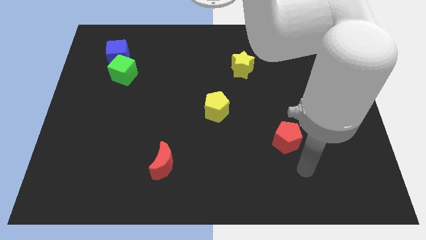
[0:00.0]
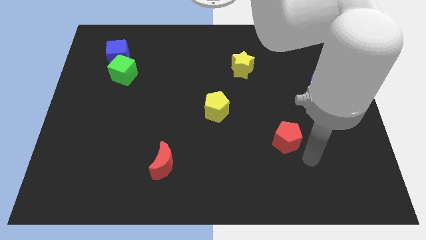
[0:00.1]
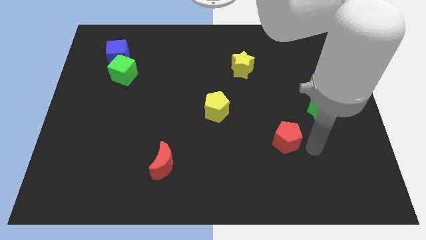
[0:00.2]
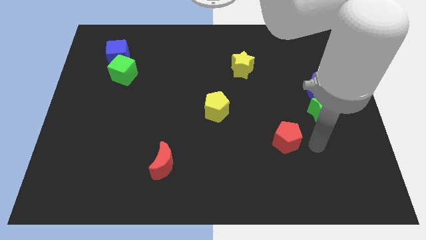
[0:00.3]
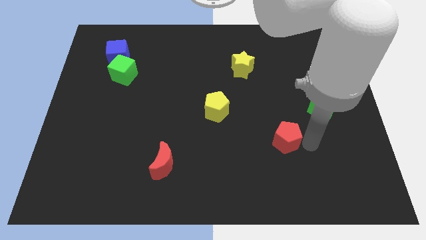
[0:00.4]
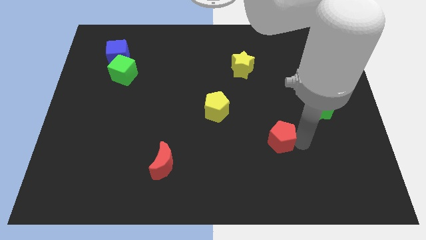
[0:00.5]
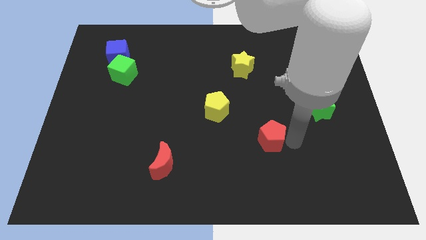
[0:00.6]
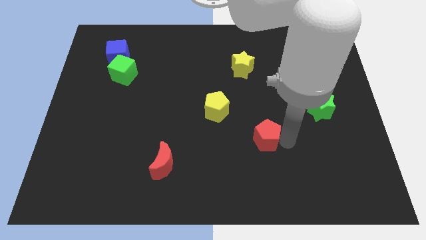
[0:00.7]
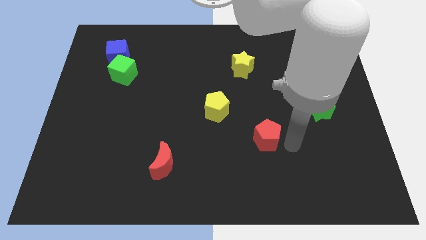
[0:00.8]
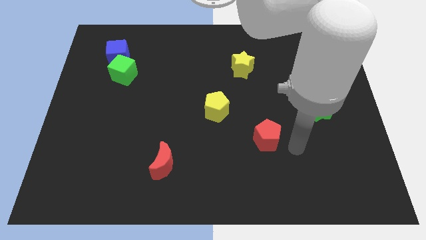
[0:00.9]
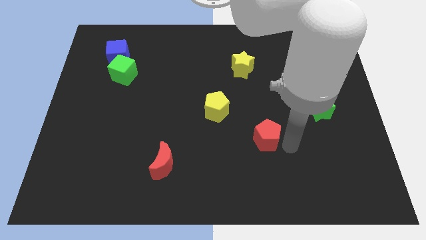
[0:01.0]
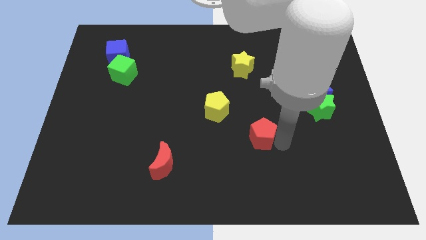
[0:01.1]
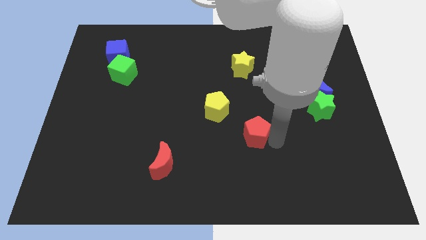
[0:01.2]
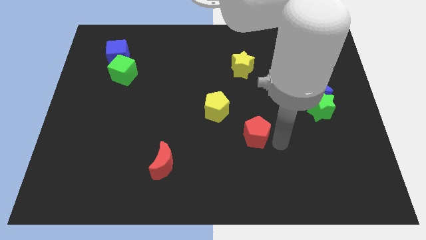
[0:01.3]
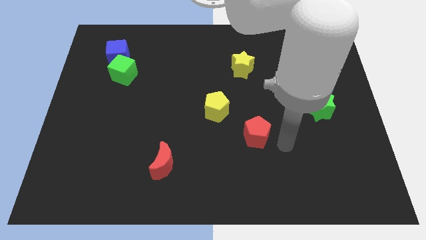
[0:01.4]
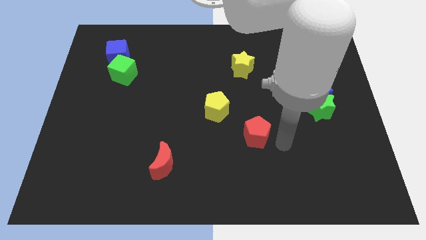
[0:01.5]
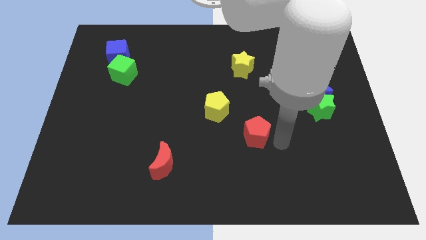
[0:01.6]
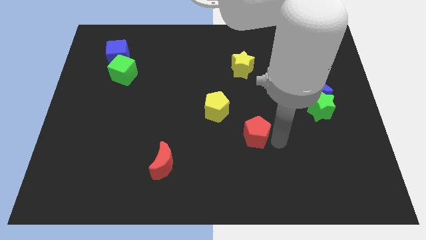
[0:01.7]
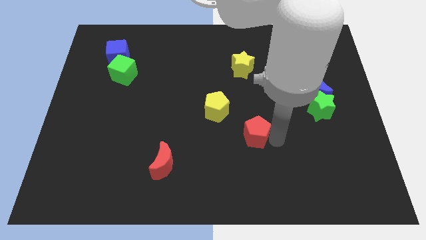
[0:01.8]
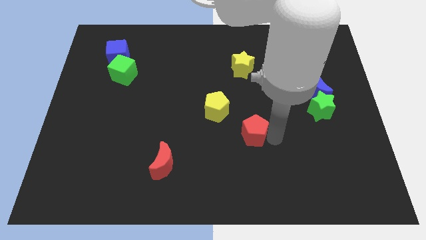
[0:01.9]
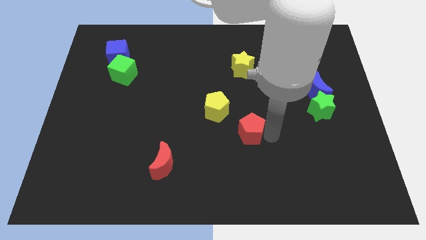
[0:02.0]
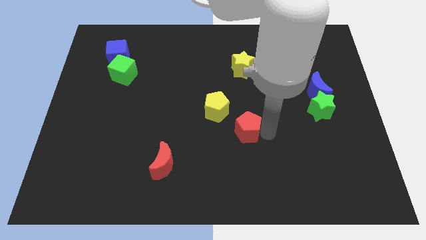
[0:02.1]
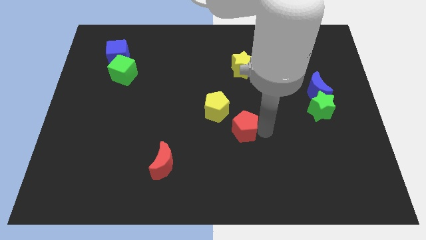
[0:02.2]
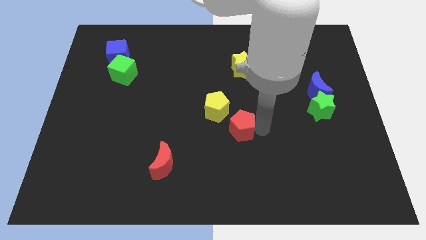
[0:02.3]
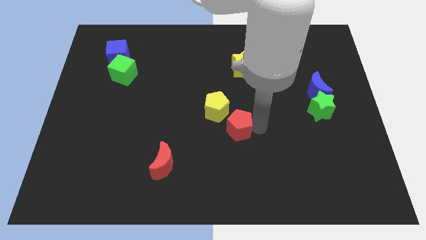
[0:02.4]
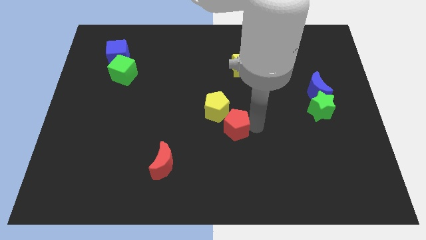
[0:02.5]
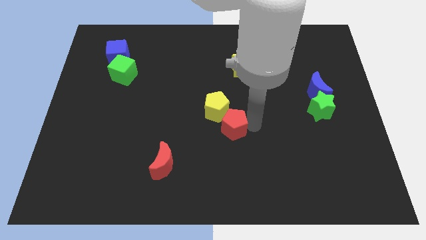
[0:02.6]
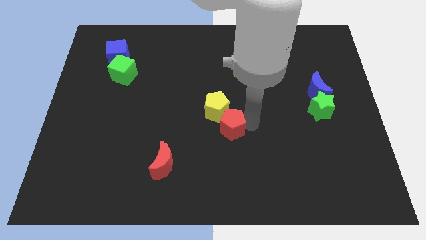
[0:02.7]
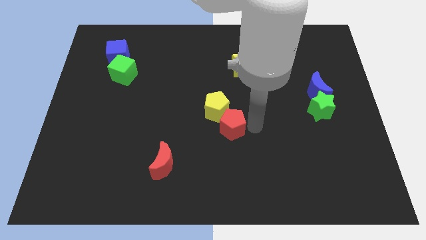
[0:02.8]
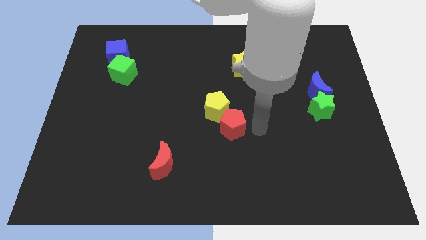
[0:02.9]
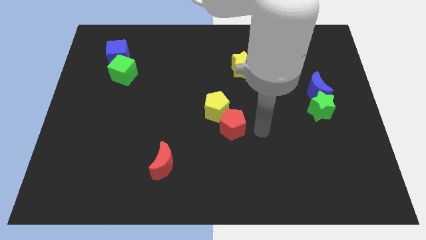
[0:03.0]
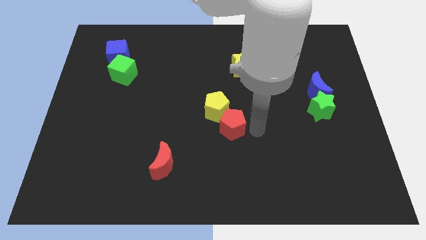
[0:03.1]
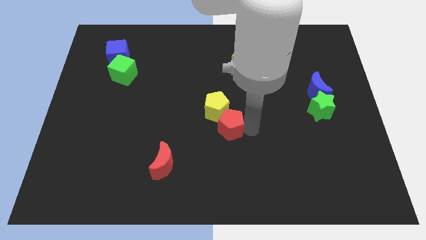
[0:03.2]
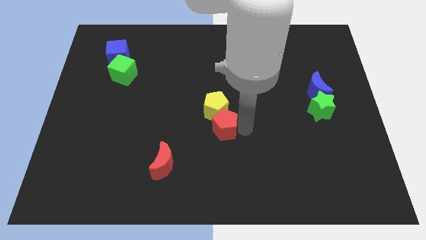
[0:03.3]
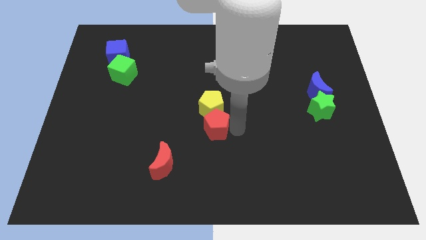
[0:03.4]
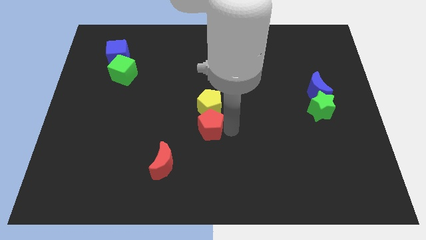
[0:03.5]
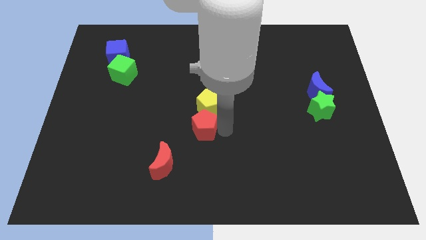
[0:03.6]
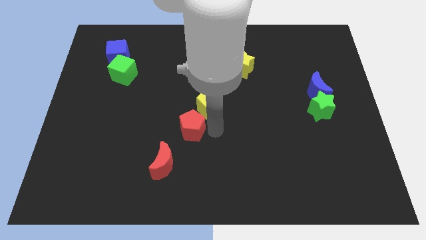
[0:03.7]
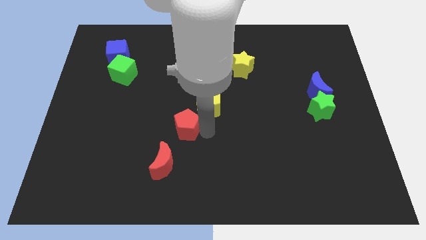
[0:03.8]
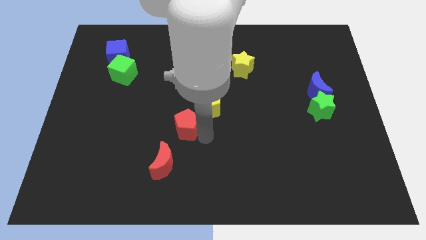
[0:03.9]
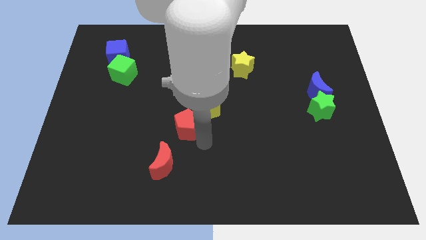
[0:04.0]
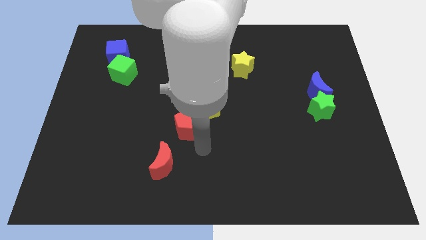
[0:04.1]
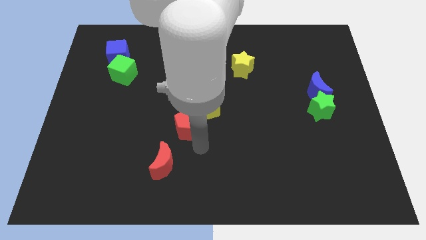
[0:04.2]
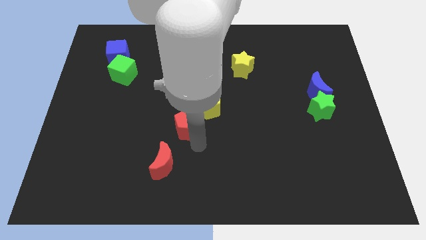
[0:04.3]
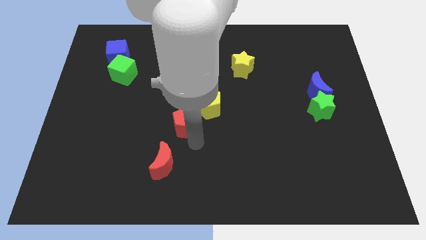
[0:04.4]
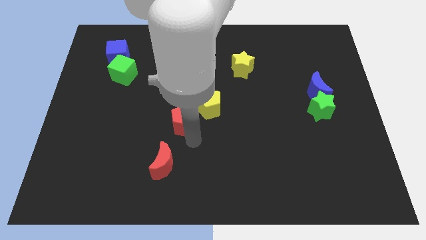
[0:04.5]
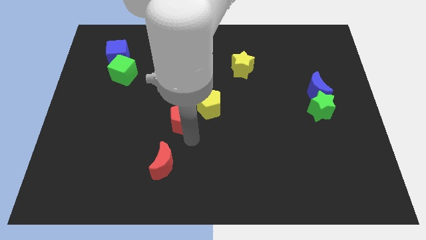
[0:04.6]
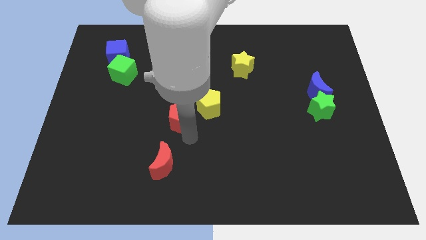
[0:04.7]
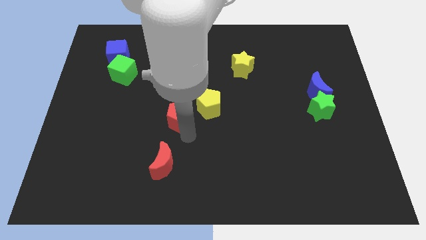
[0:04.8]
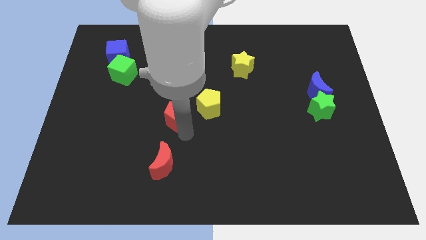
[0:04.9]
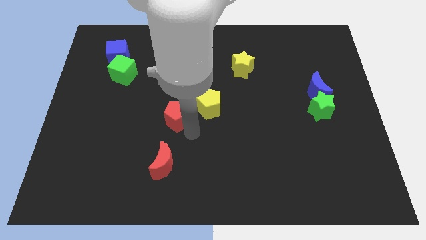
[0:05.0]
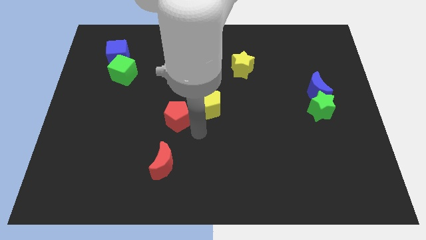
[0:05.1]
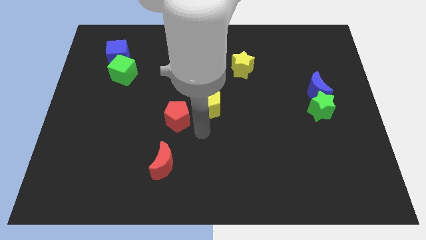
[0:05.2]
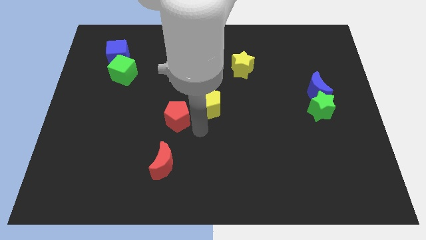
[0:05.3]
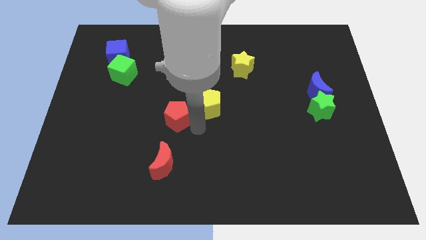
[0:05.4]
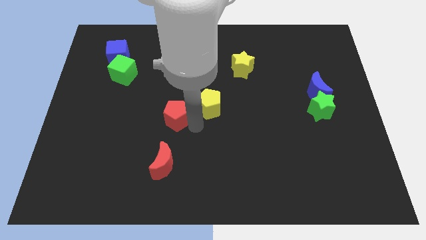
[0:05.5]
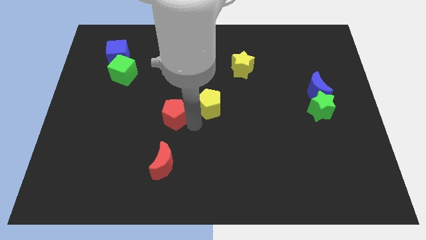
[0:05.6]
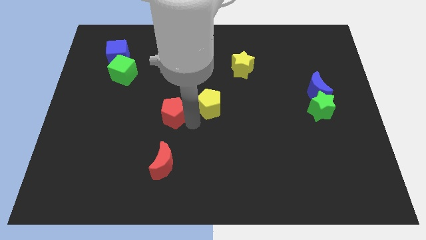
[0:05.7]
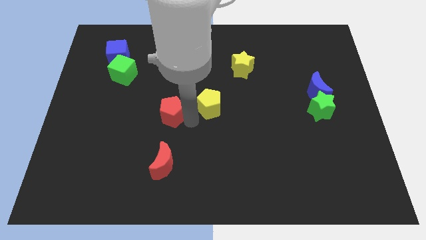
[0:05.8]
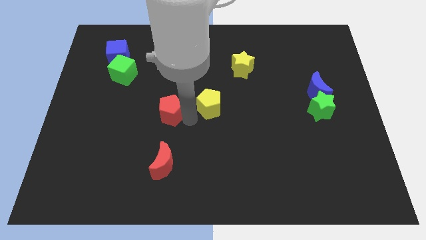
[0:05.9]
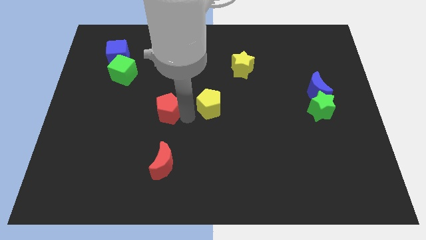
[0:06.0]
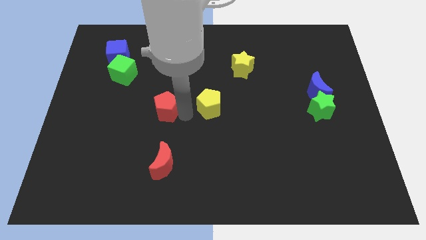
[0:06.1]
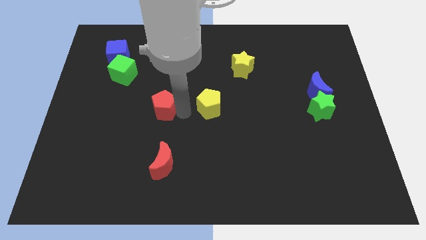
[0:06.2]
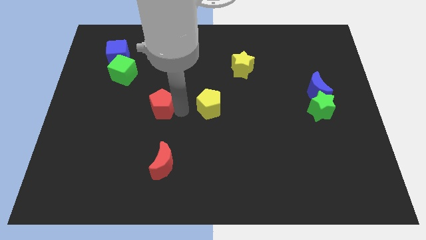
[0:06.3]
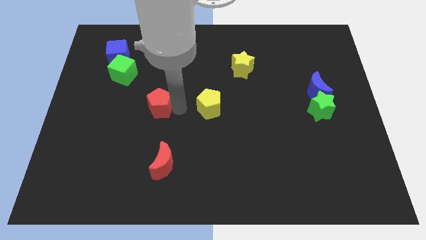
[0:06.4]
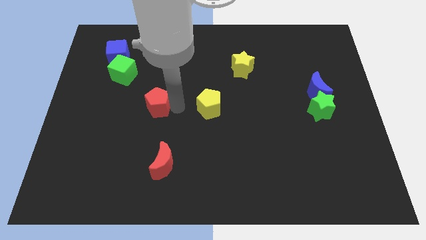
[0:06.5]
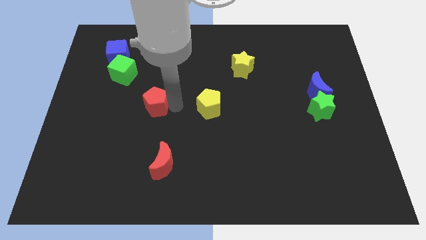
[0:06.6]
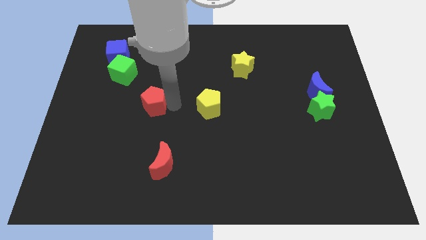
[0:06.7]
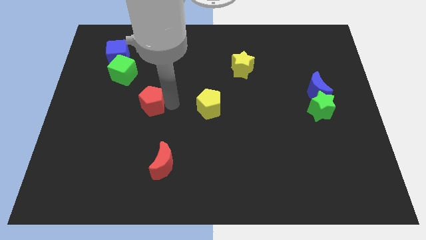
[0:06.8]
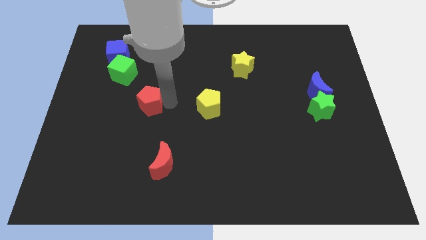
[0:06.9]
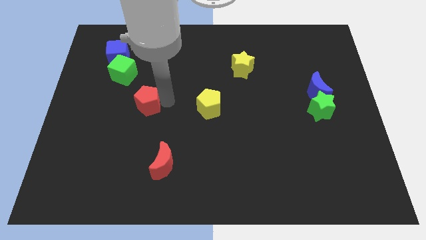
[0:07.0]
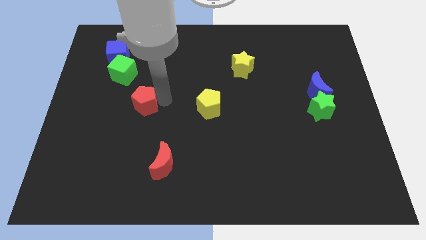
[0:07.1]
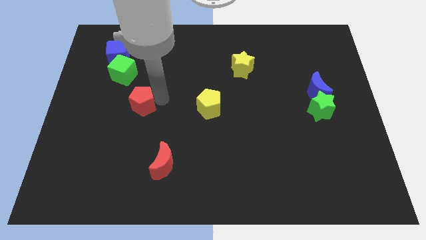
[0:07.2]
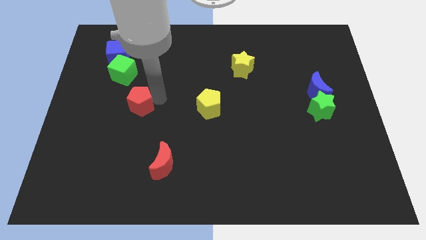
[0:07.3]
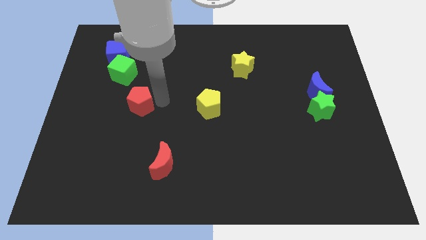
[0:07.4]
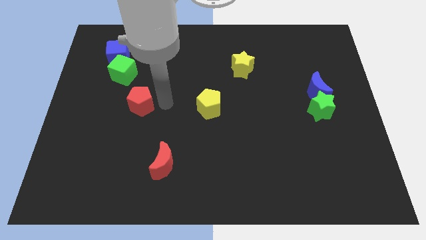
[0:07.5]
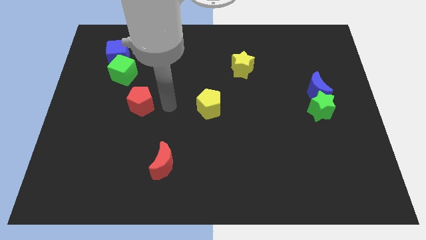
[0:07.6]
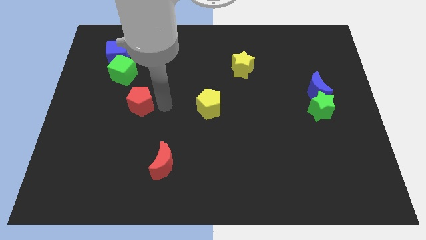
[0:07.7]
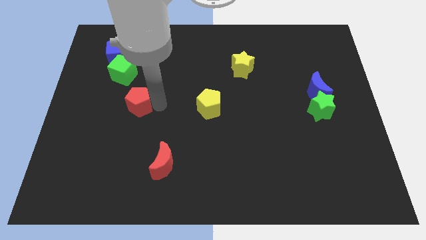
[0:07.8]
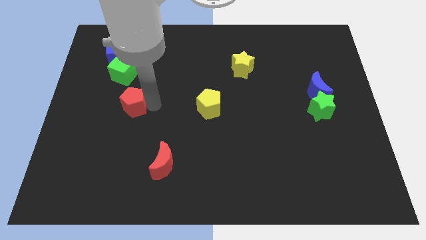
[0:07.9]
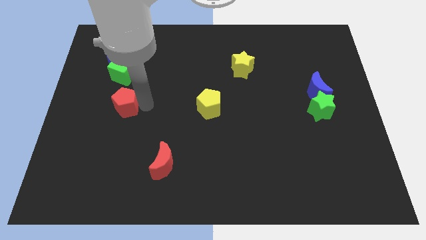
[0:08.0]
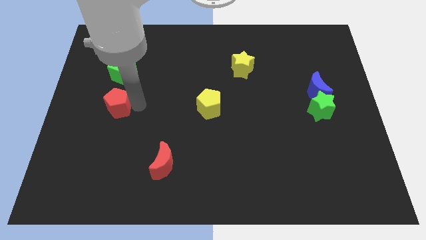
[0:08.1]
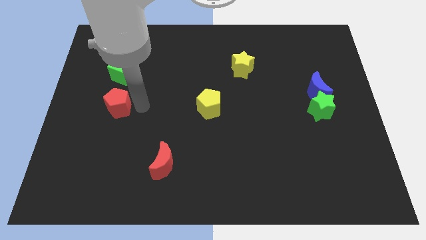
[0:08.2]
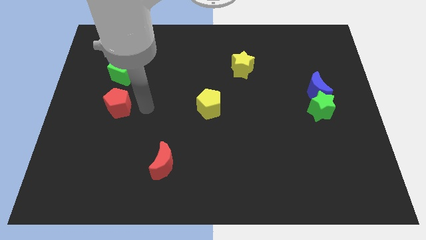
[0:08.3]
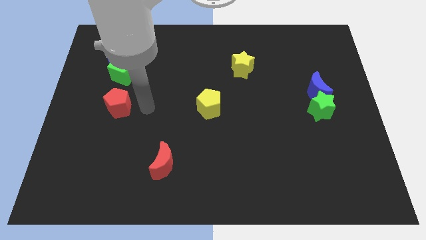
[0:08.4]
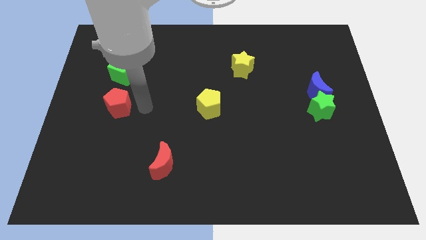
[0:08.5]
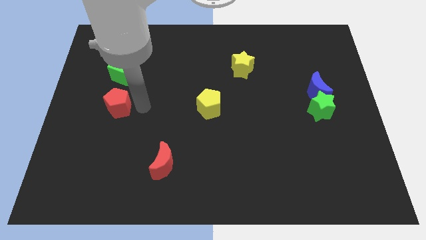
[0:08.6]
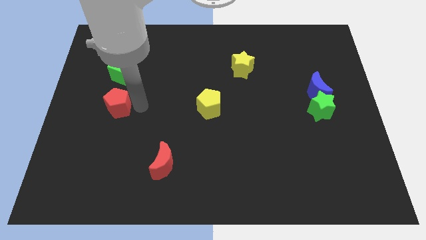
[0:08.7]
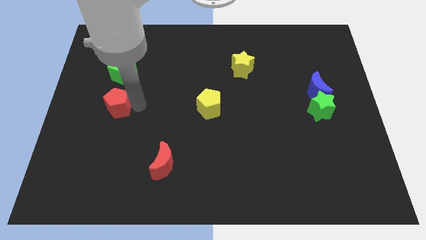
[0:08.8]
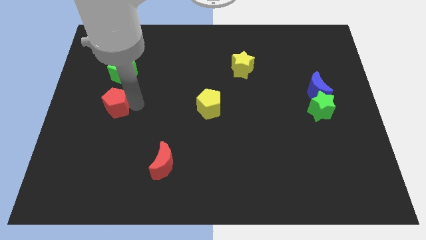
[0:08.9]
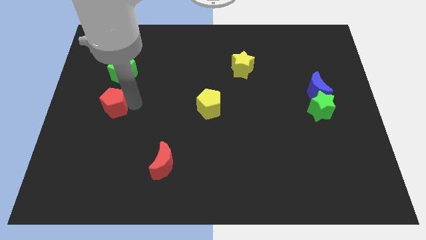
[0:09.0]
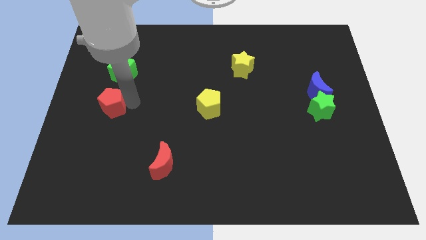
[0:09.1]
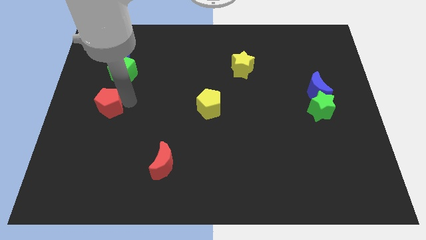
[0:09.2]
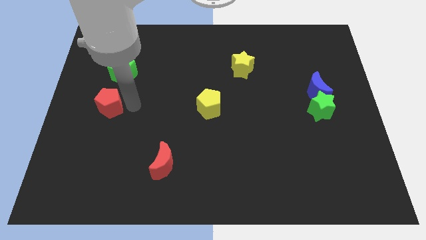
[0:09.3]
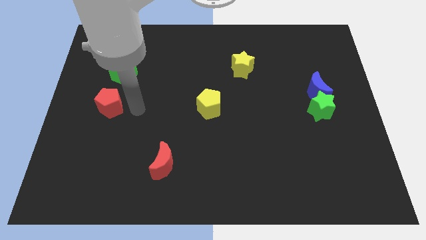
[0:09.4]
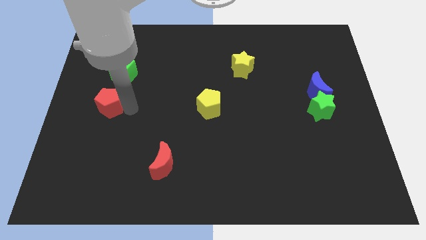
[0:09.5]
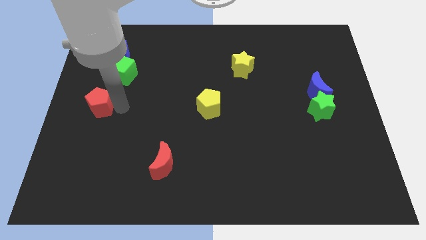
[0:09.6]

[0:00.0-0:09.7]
put the red pentagon to the left side of the board
